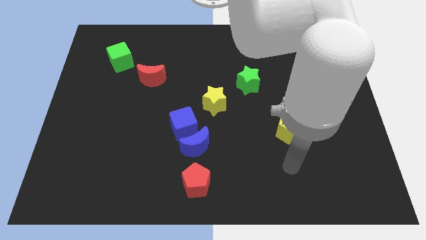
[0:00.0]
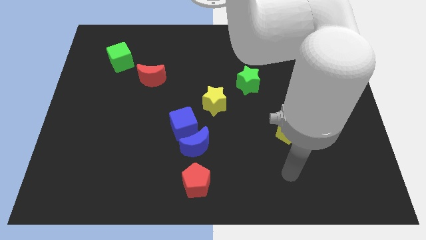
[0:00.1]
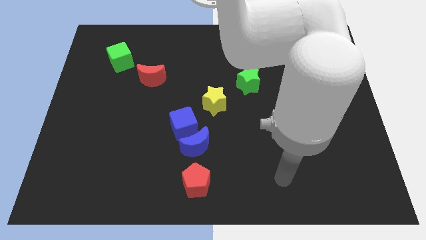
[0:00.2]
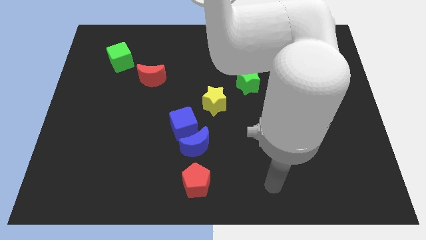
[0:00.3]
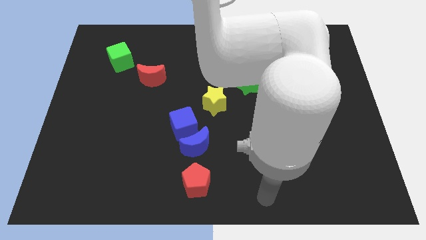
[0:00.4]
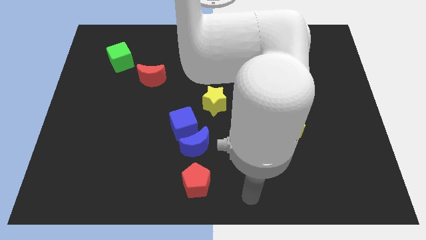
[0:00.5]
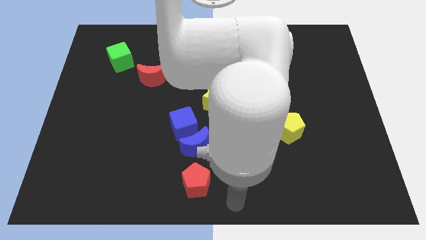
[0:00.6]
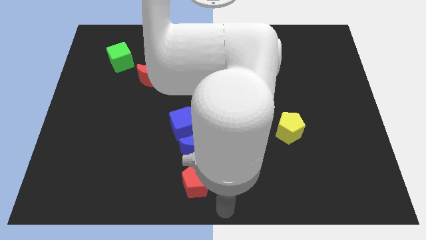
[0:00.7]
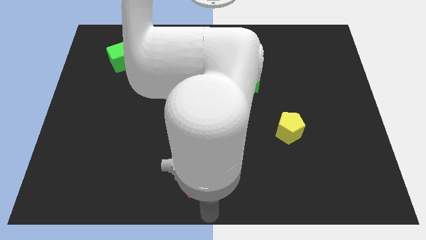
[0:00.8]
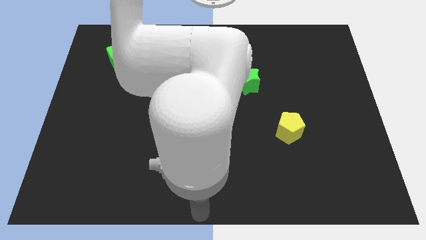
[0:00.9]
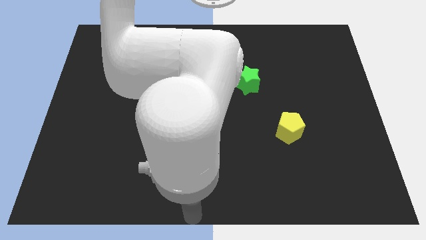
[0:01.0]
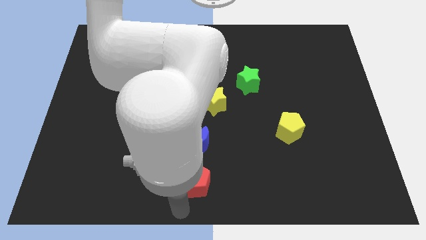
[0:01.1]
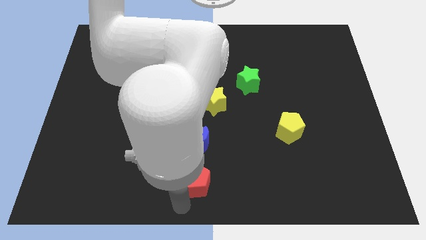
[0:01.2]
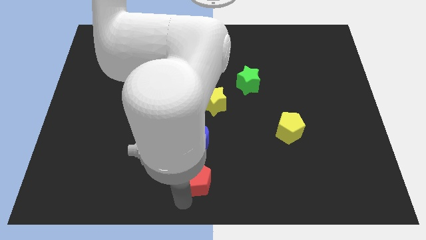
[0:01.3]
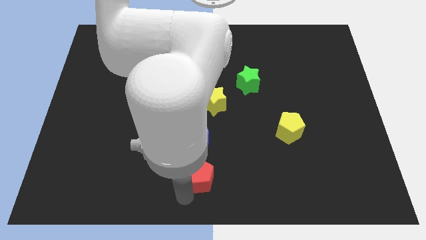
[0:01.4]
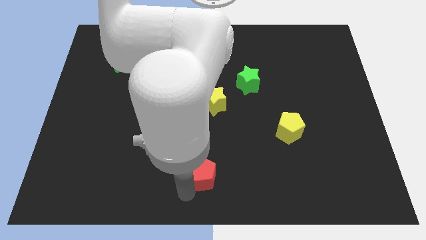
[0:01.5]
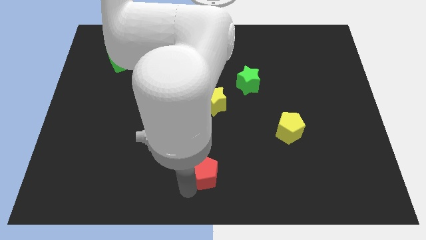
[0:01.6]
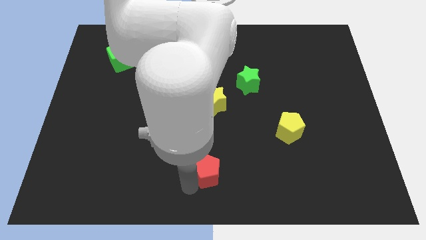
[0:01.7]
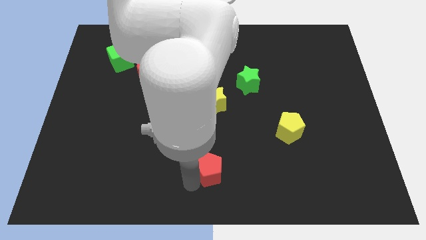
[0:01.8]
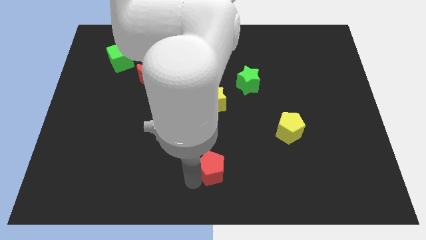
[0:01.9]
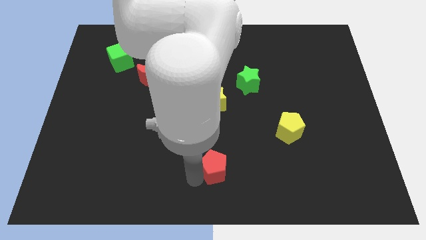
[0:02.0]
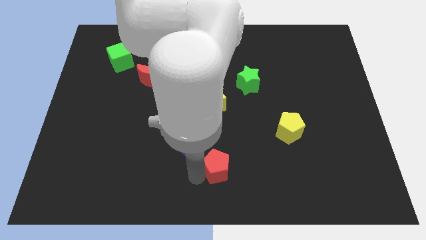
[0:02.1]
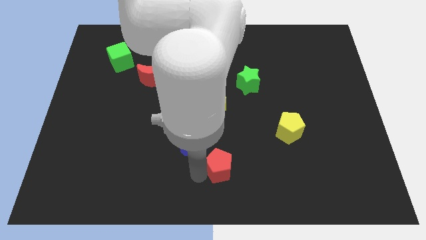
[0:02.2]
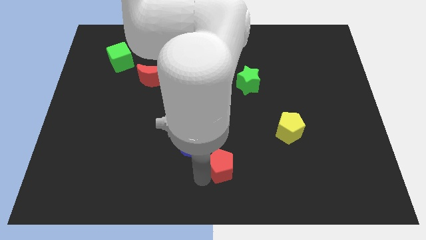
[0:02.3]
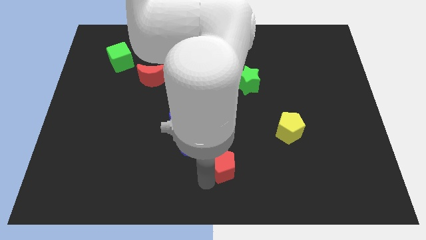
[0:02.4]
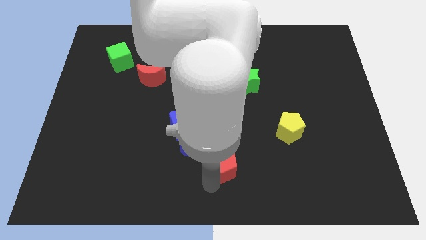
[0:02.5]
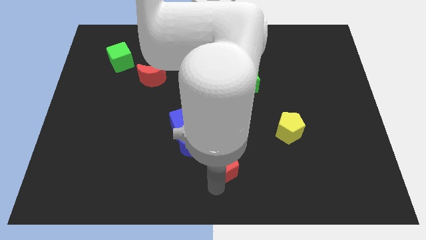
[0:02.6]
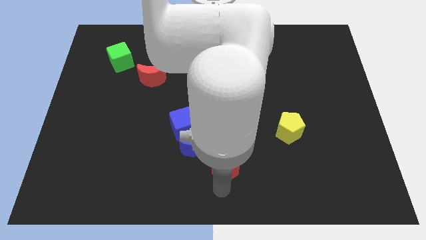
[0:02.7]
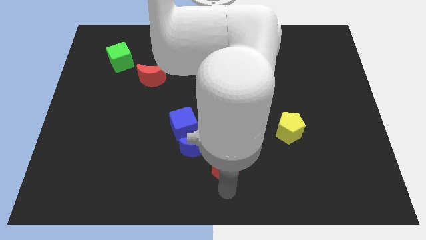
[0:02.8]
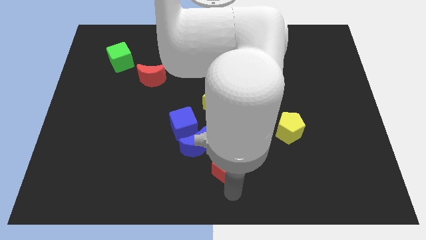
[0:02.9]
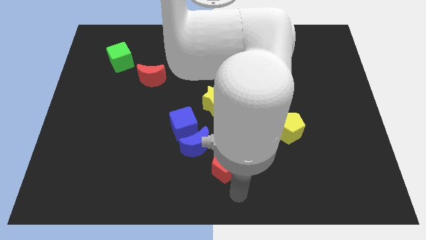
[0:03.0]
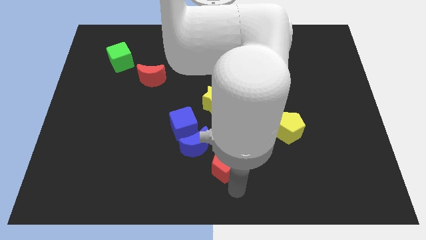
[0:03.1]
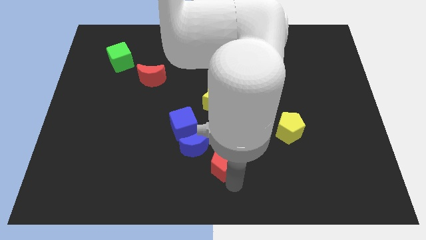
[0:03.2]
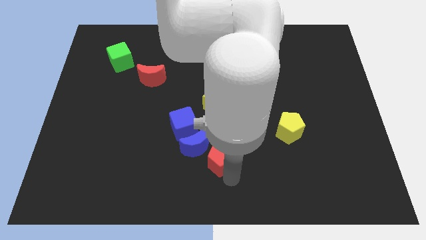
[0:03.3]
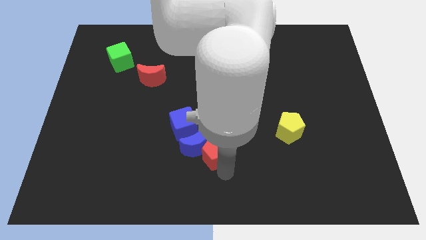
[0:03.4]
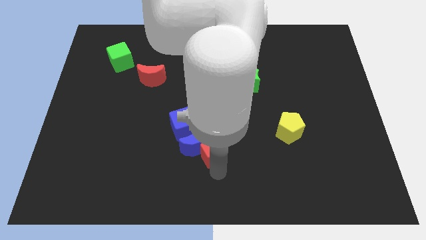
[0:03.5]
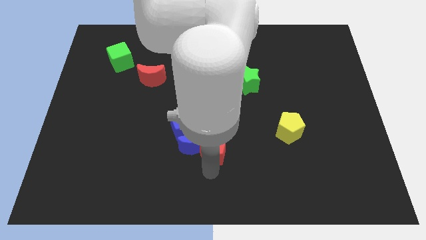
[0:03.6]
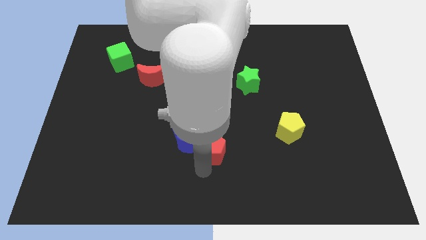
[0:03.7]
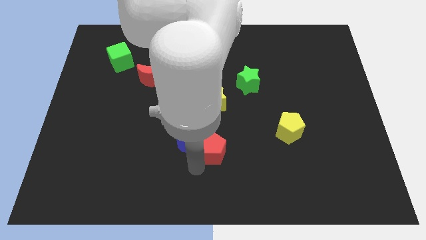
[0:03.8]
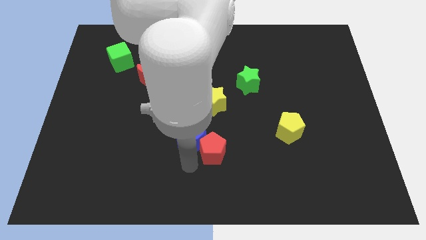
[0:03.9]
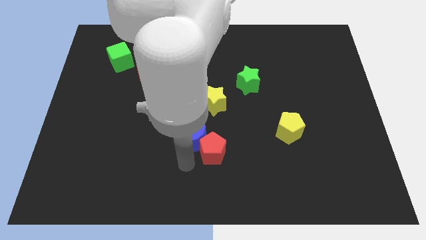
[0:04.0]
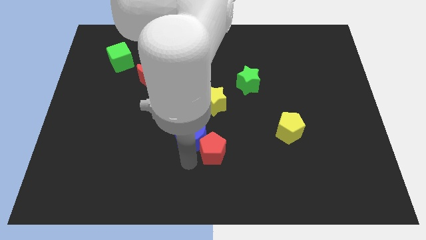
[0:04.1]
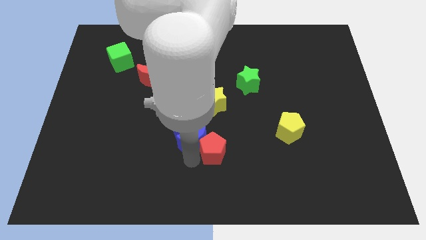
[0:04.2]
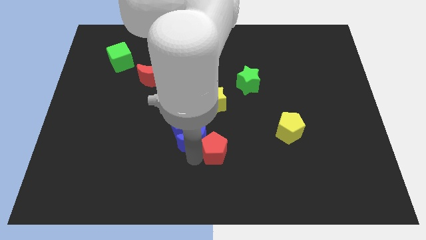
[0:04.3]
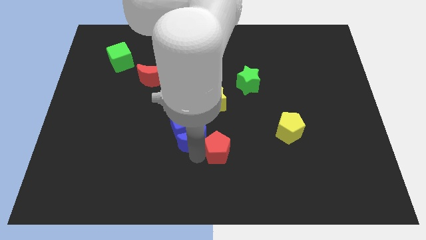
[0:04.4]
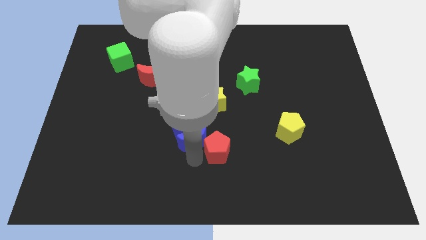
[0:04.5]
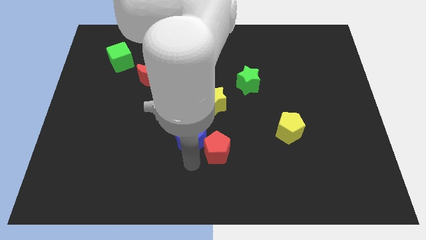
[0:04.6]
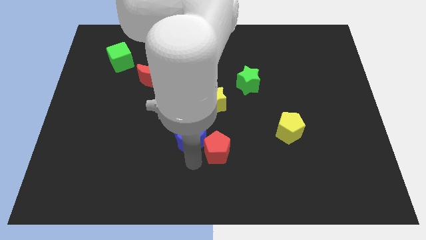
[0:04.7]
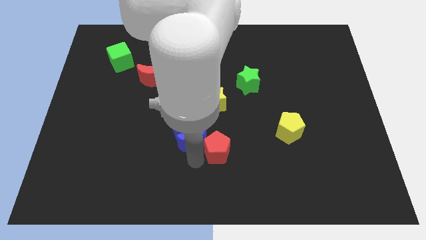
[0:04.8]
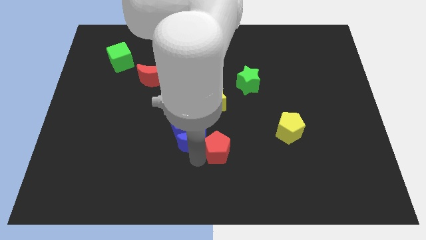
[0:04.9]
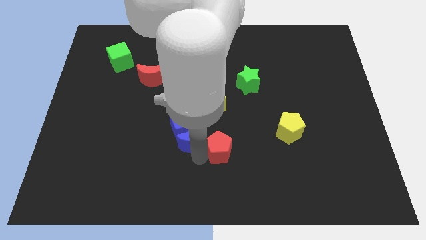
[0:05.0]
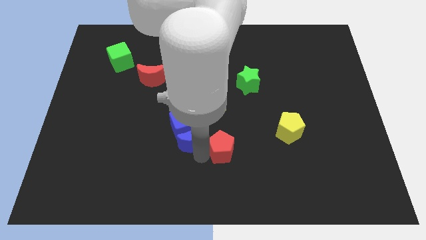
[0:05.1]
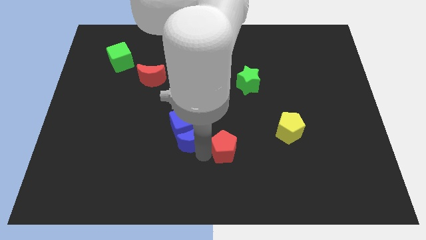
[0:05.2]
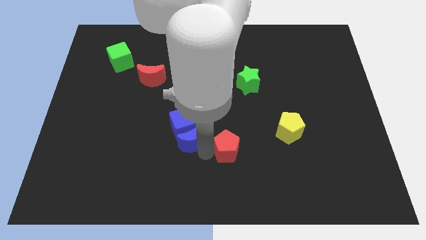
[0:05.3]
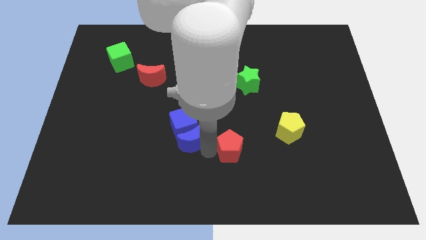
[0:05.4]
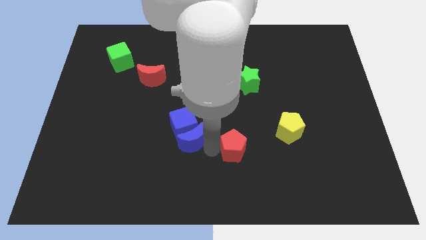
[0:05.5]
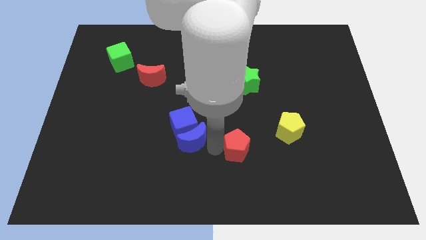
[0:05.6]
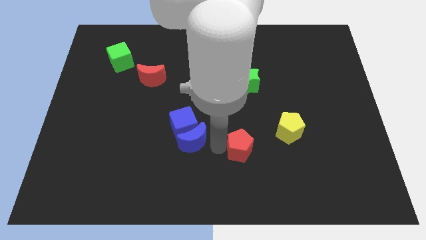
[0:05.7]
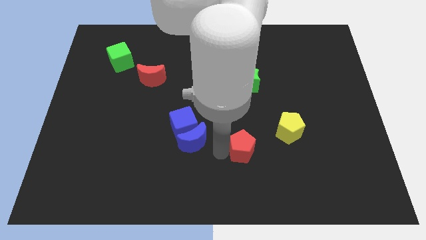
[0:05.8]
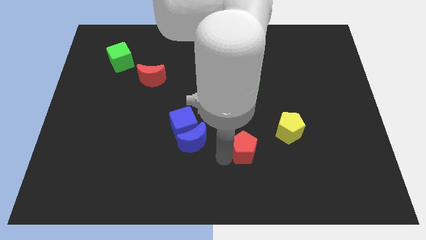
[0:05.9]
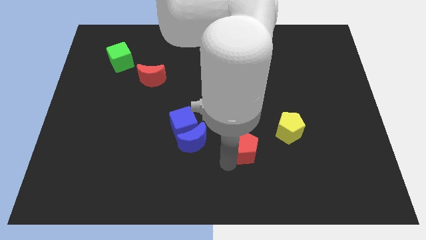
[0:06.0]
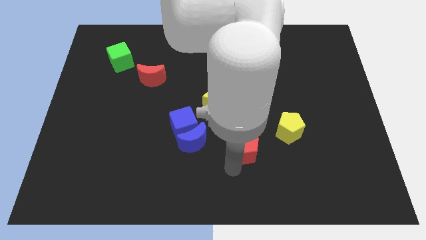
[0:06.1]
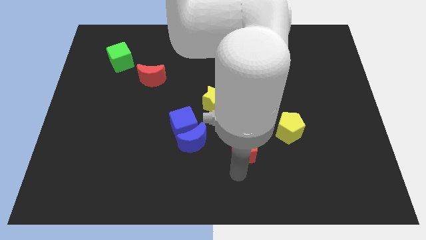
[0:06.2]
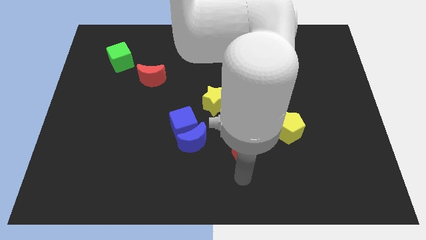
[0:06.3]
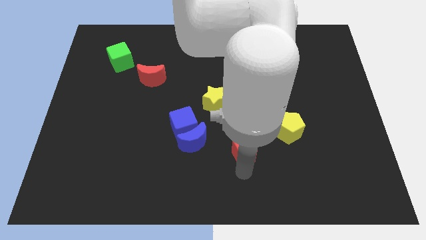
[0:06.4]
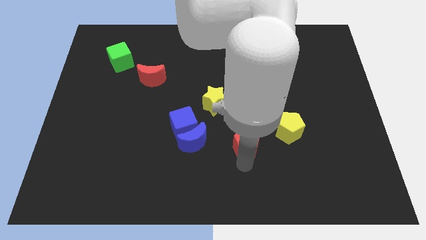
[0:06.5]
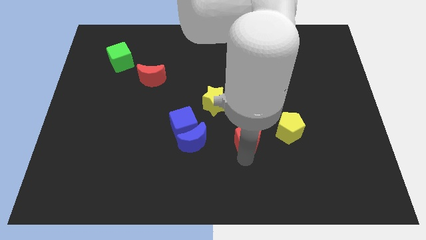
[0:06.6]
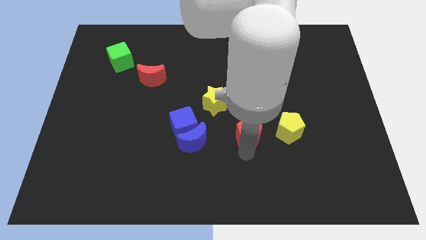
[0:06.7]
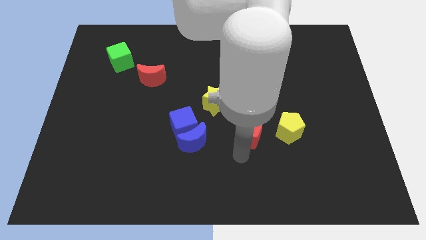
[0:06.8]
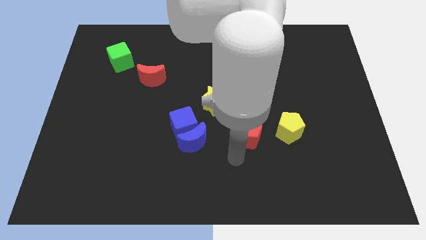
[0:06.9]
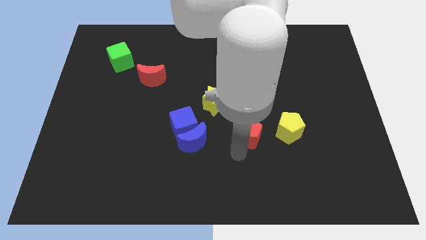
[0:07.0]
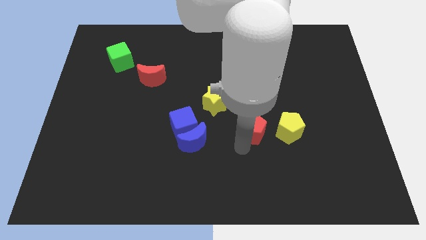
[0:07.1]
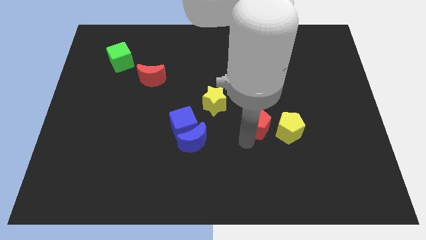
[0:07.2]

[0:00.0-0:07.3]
move the red pentagon to the top left of the yellow pentagon
